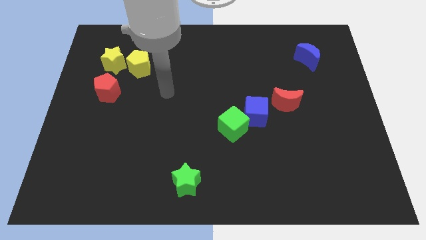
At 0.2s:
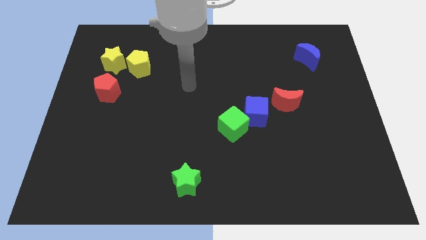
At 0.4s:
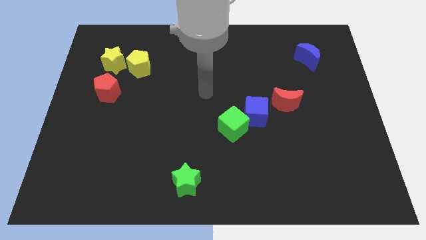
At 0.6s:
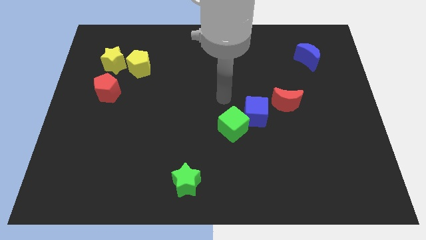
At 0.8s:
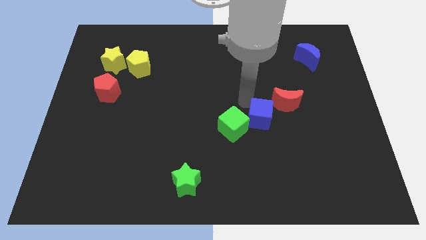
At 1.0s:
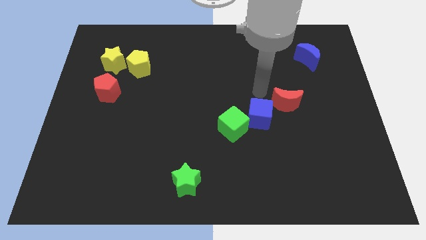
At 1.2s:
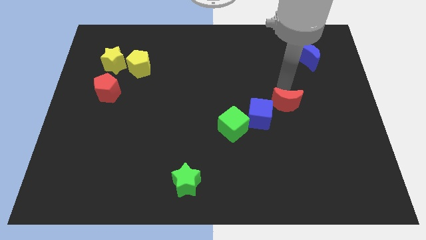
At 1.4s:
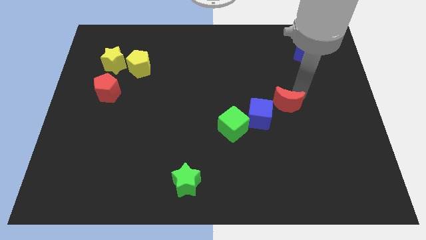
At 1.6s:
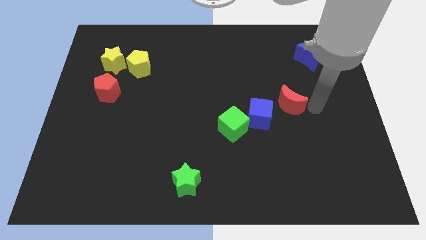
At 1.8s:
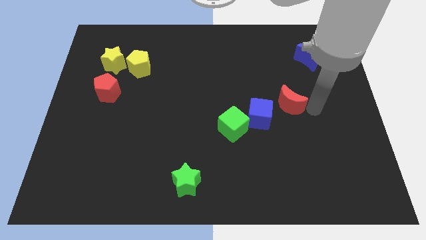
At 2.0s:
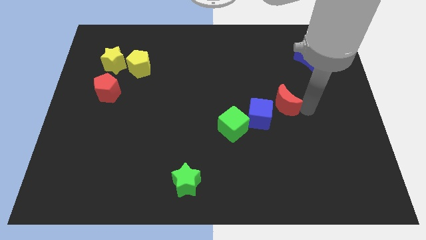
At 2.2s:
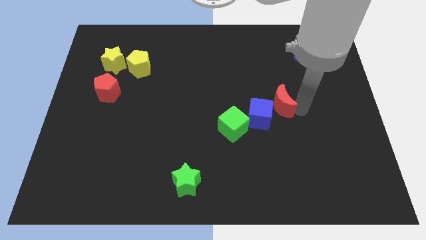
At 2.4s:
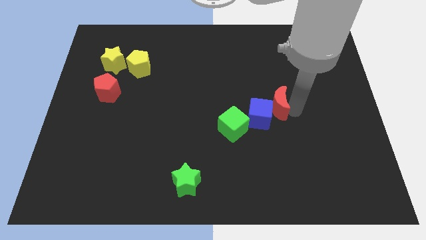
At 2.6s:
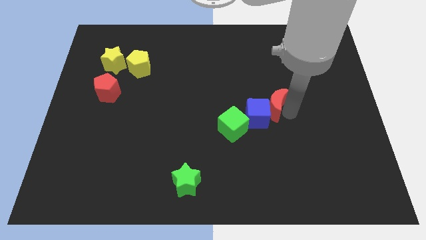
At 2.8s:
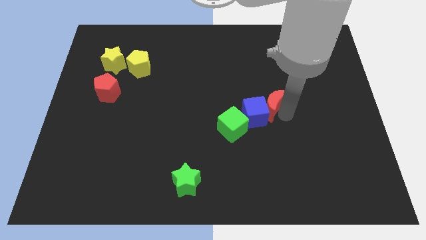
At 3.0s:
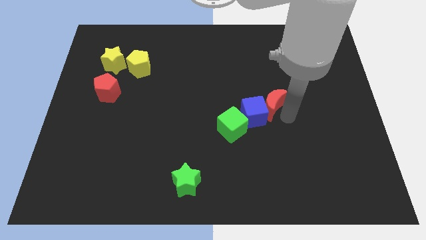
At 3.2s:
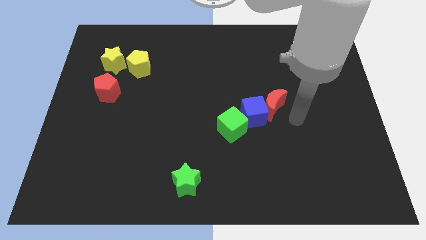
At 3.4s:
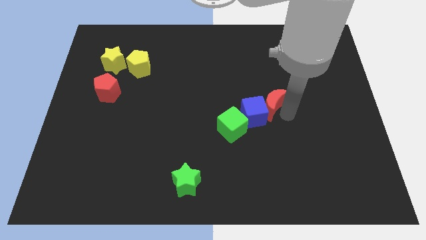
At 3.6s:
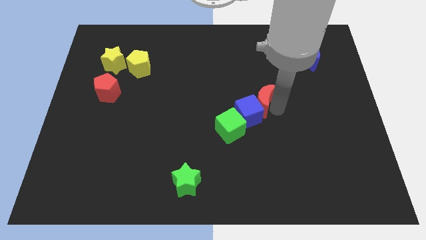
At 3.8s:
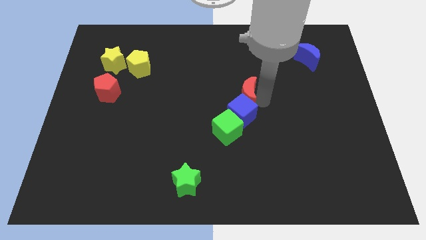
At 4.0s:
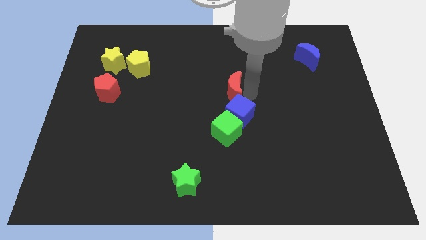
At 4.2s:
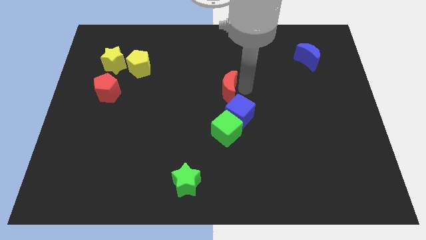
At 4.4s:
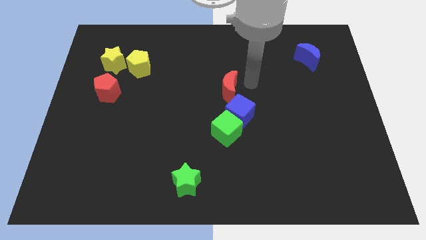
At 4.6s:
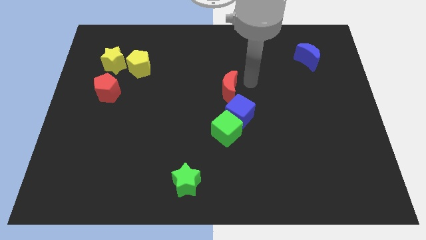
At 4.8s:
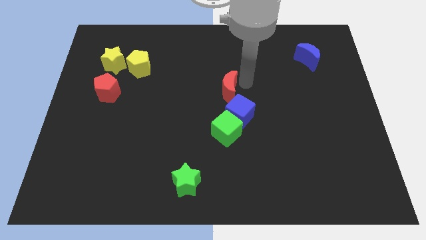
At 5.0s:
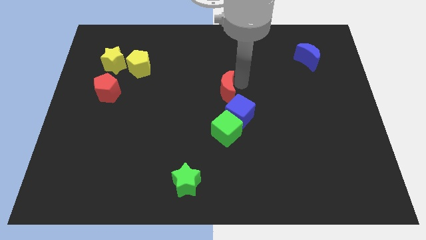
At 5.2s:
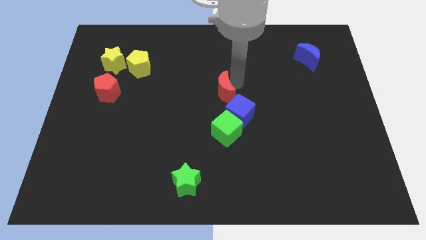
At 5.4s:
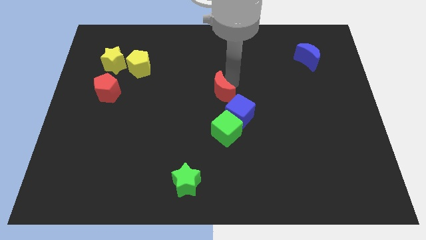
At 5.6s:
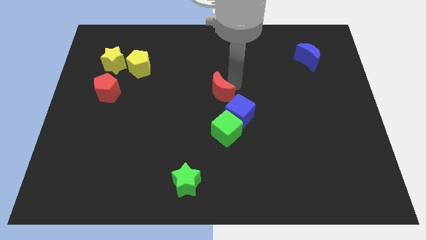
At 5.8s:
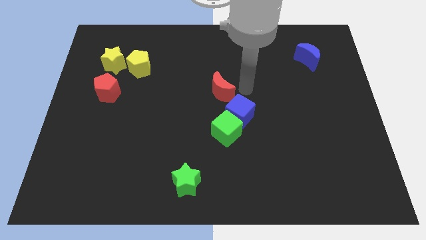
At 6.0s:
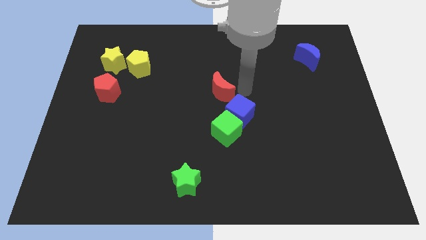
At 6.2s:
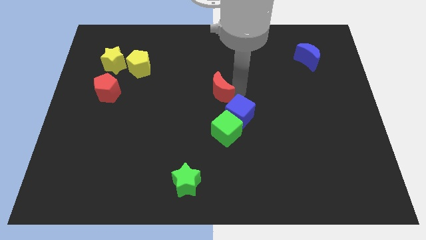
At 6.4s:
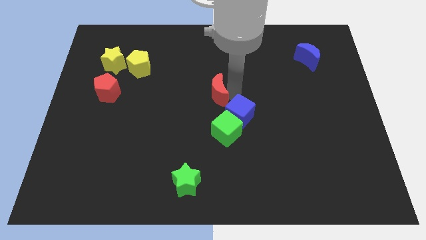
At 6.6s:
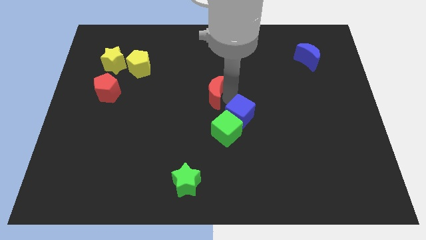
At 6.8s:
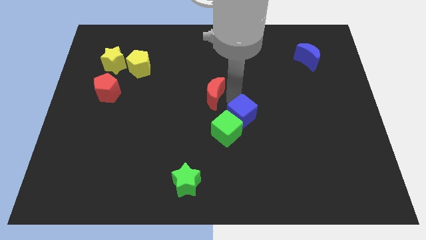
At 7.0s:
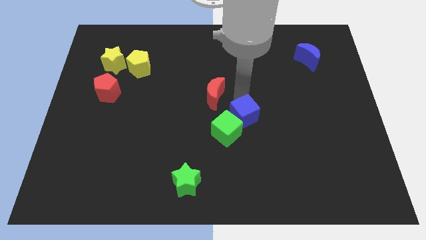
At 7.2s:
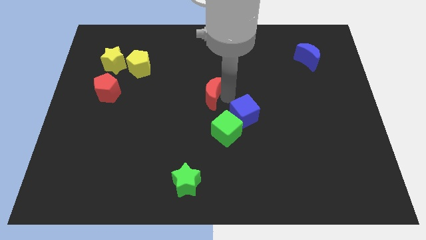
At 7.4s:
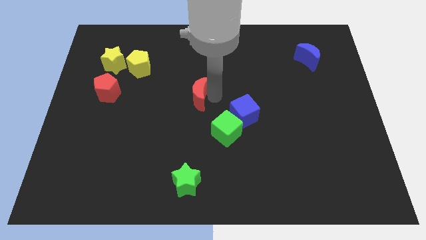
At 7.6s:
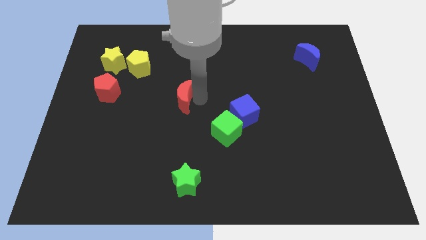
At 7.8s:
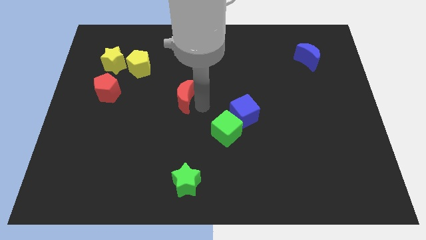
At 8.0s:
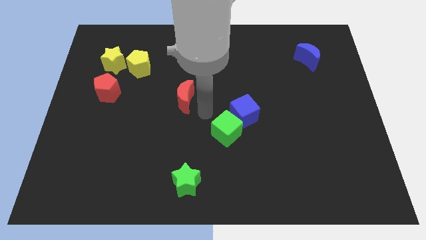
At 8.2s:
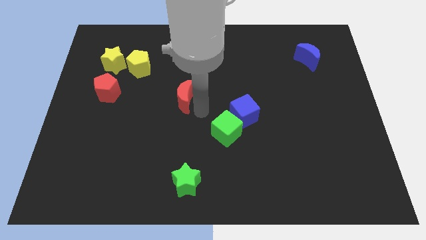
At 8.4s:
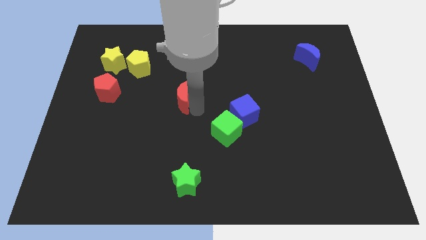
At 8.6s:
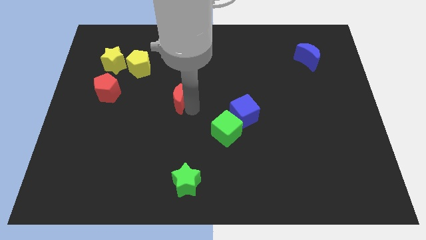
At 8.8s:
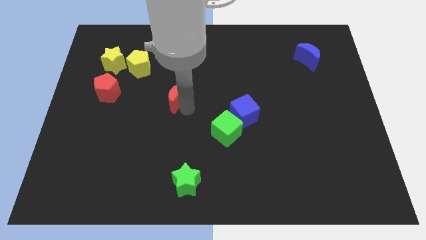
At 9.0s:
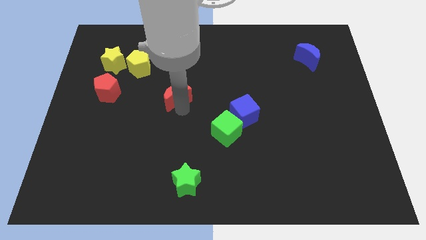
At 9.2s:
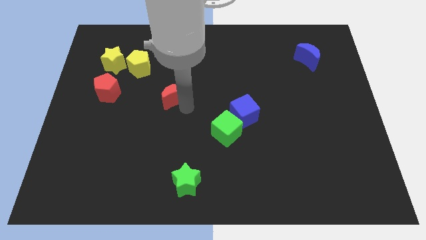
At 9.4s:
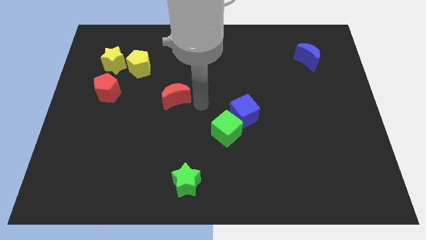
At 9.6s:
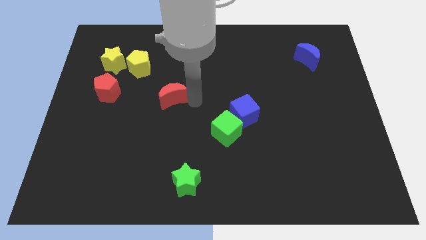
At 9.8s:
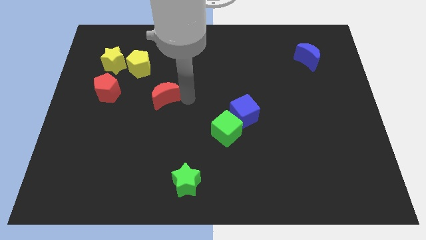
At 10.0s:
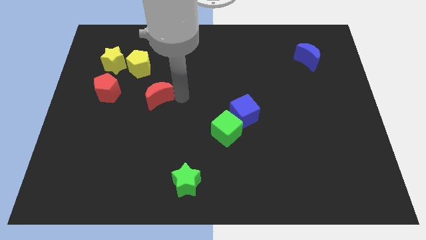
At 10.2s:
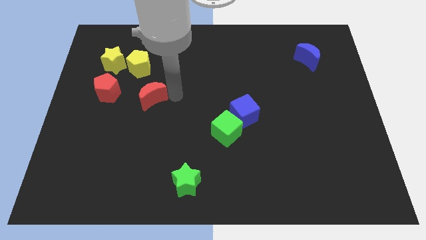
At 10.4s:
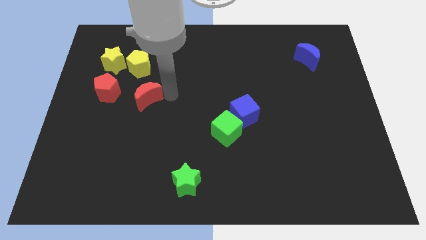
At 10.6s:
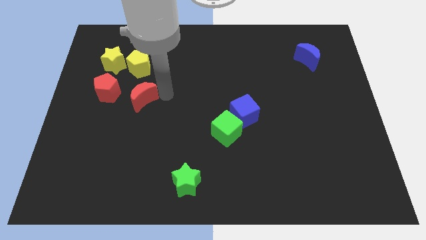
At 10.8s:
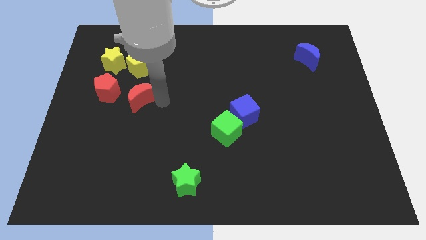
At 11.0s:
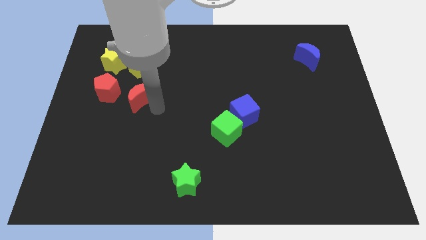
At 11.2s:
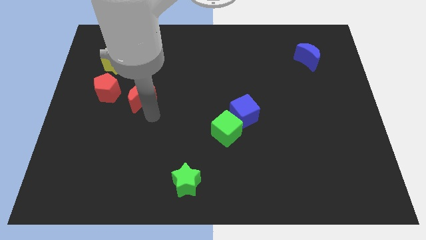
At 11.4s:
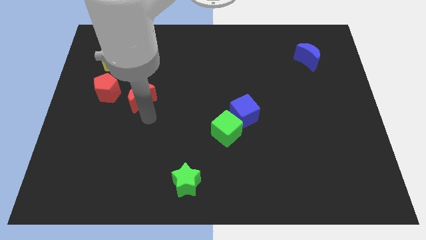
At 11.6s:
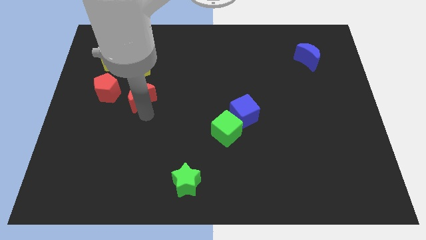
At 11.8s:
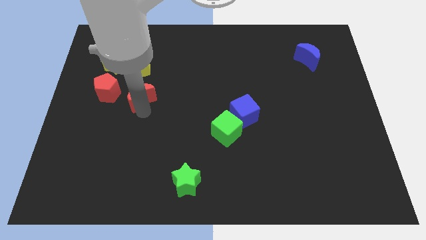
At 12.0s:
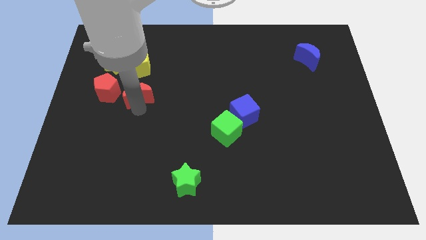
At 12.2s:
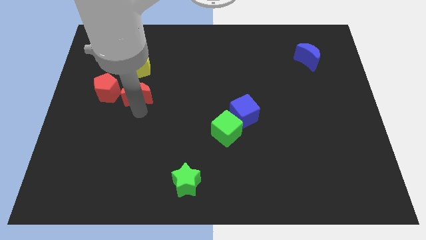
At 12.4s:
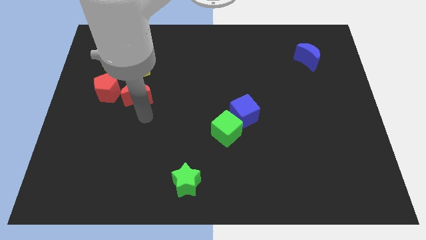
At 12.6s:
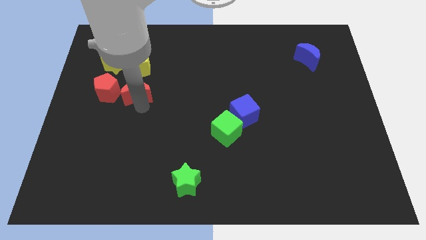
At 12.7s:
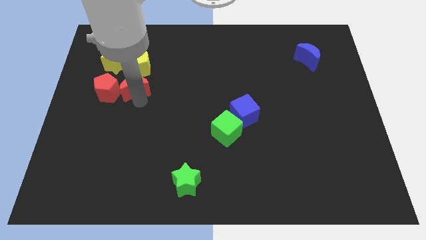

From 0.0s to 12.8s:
move the red moon to the bottom right of the yellow star

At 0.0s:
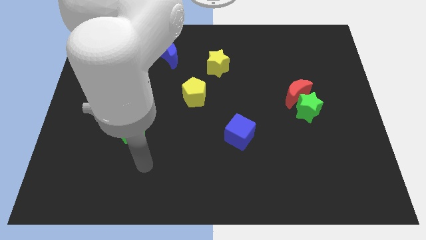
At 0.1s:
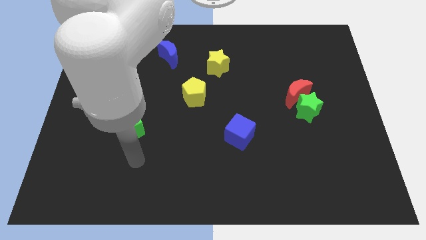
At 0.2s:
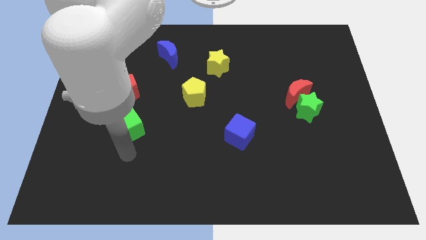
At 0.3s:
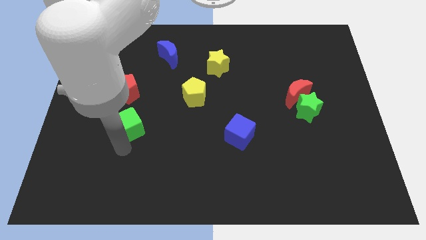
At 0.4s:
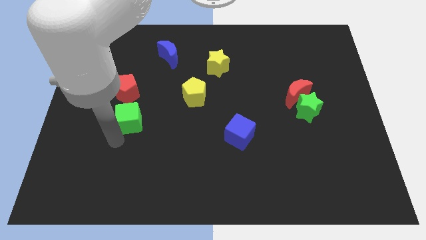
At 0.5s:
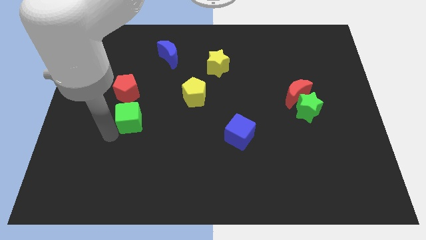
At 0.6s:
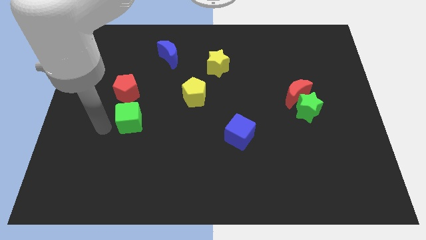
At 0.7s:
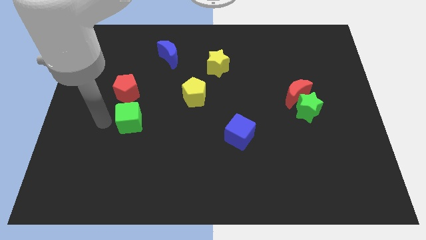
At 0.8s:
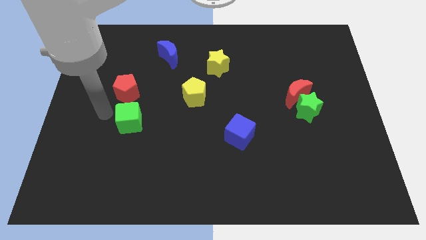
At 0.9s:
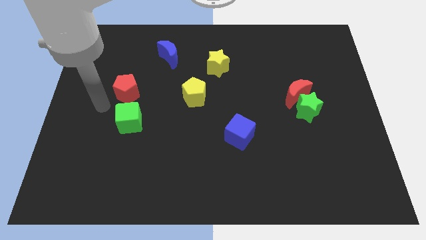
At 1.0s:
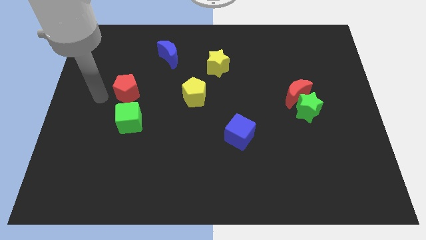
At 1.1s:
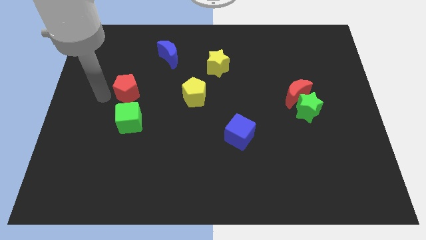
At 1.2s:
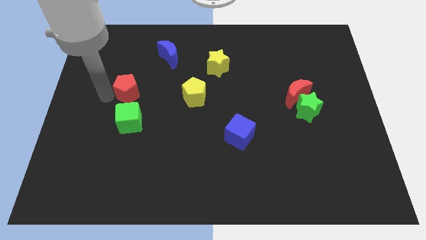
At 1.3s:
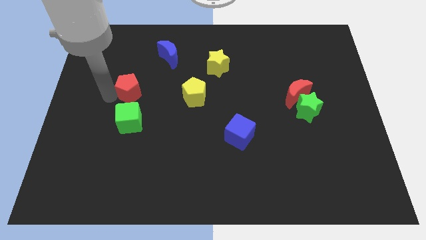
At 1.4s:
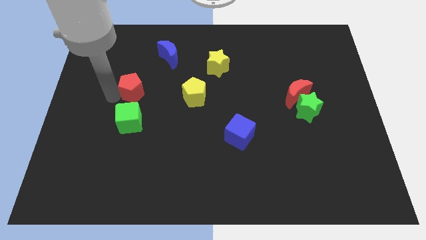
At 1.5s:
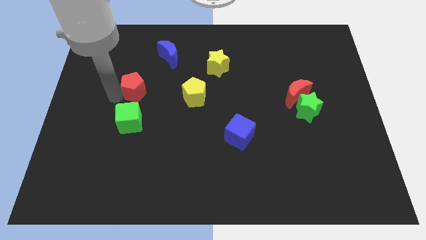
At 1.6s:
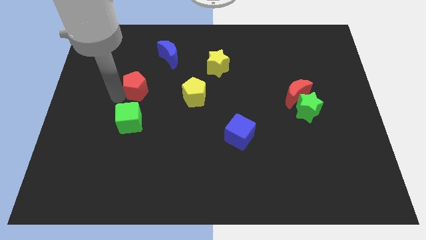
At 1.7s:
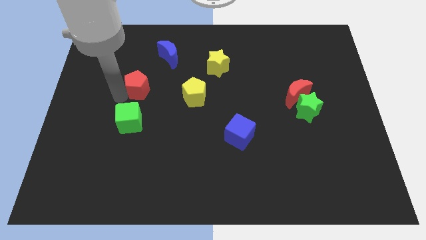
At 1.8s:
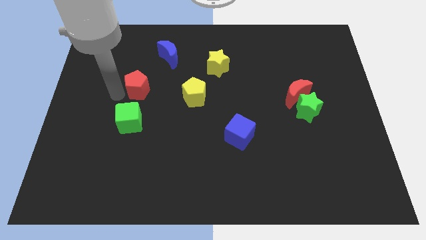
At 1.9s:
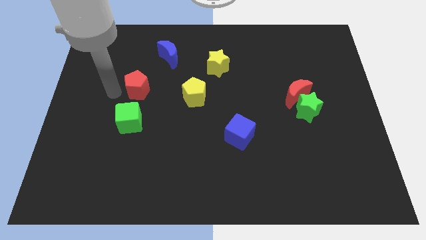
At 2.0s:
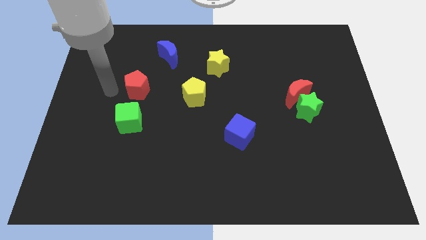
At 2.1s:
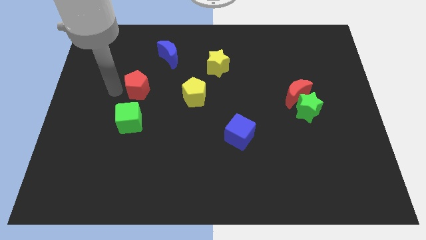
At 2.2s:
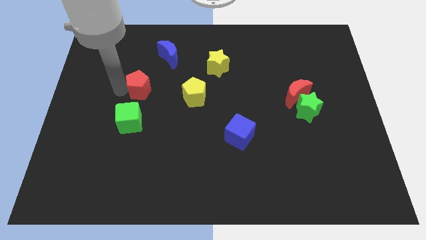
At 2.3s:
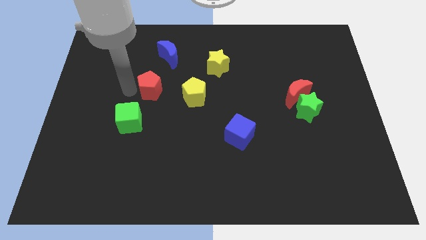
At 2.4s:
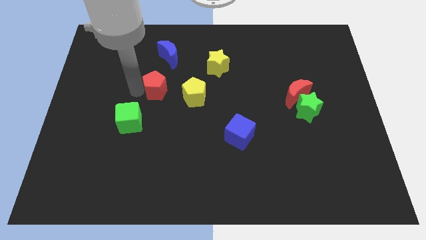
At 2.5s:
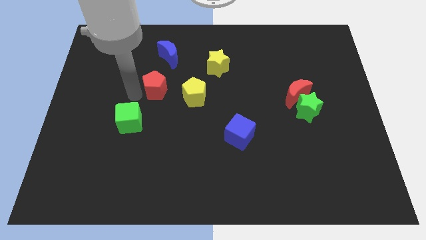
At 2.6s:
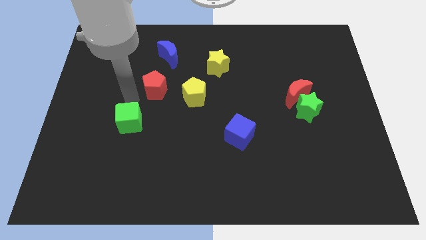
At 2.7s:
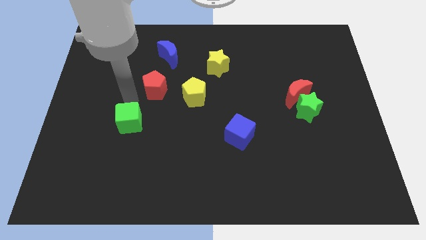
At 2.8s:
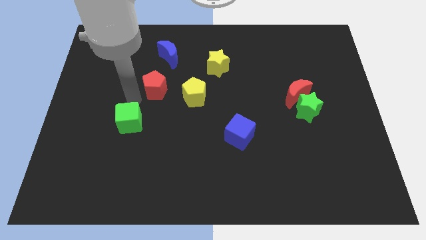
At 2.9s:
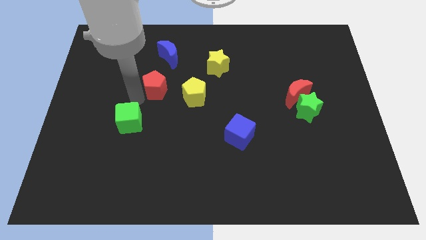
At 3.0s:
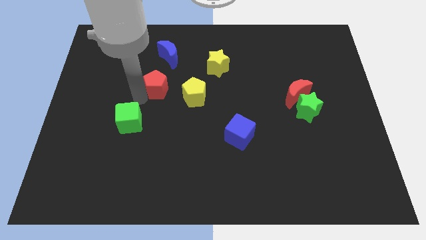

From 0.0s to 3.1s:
push the red pentagon diagonally up and to the left of the yellow pentagon
